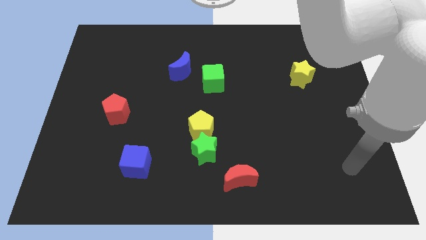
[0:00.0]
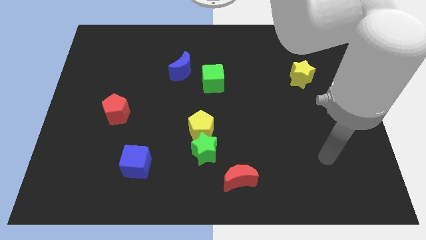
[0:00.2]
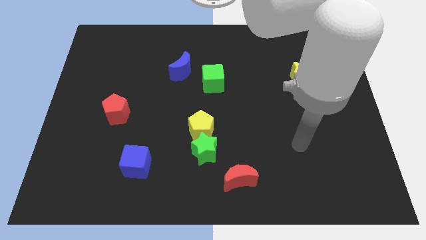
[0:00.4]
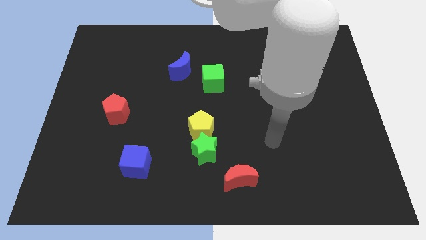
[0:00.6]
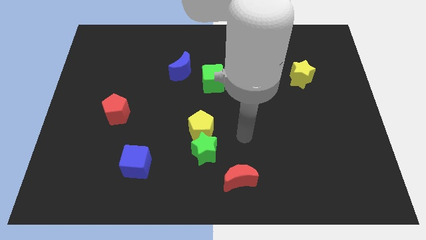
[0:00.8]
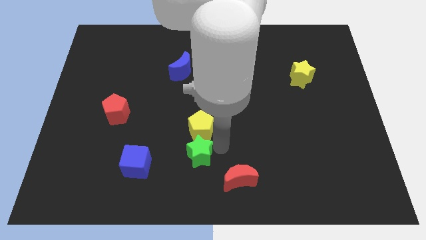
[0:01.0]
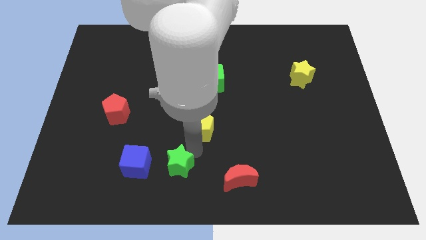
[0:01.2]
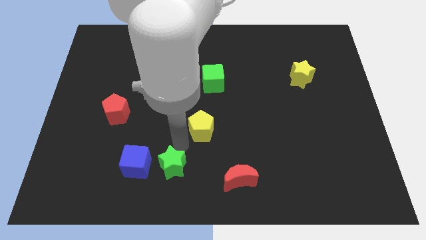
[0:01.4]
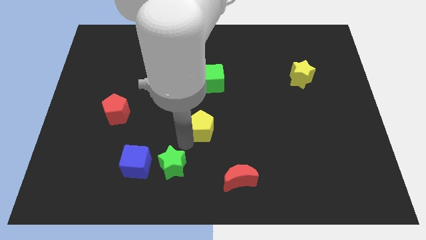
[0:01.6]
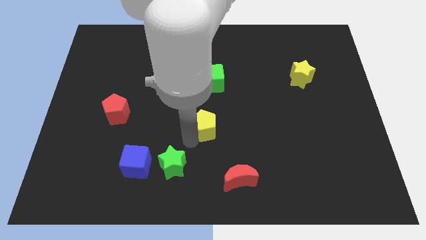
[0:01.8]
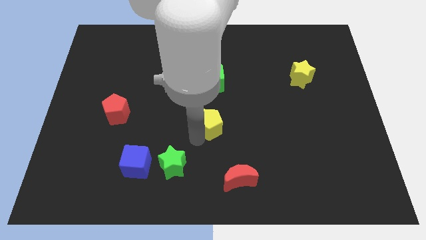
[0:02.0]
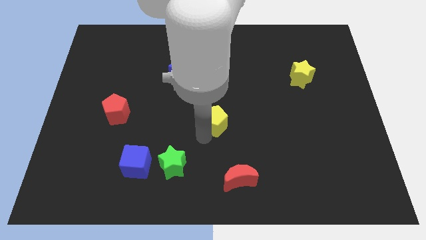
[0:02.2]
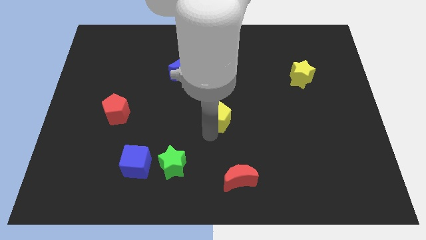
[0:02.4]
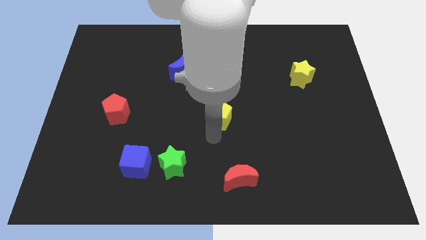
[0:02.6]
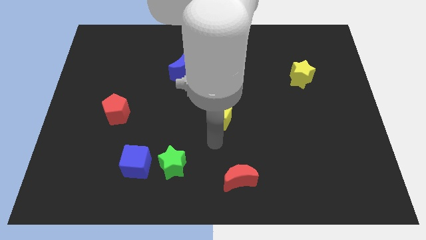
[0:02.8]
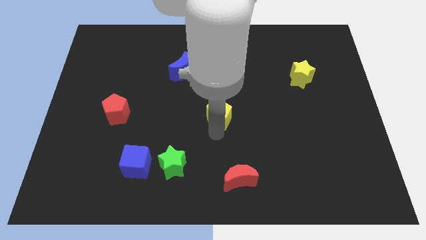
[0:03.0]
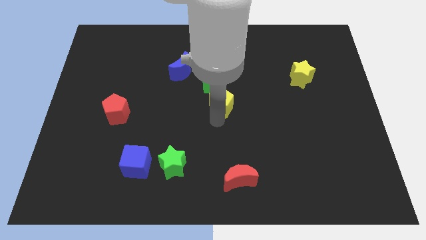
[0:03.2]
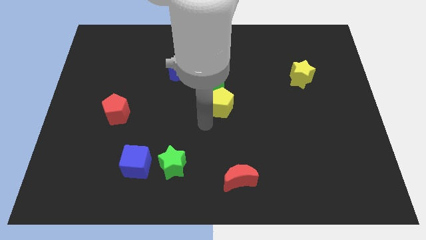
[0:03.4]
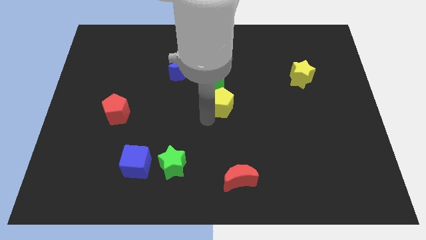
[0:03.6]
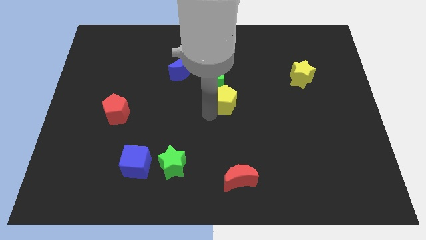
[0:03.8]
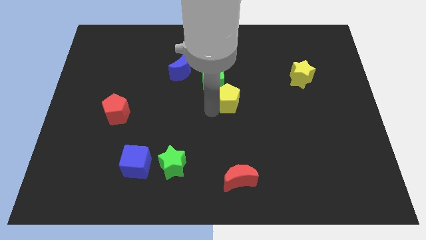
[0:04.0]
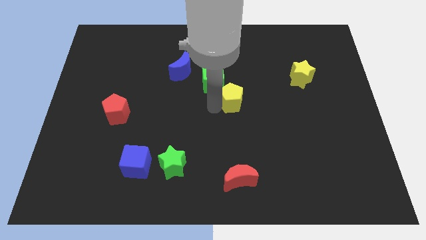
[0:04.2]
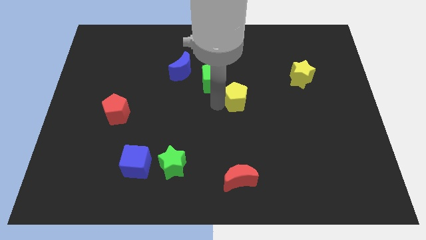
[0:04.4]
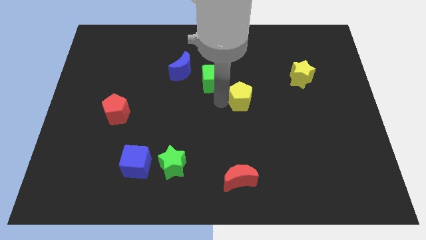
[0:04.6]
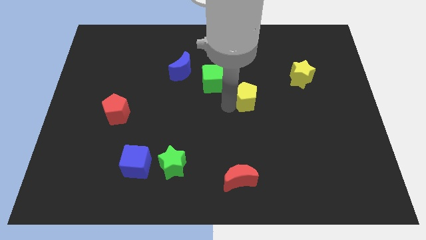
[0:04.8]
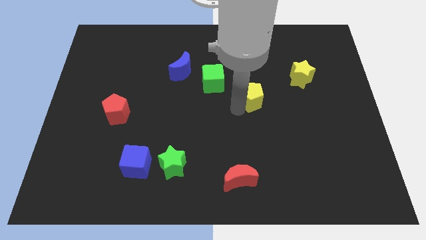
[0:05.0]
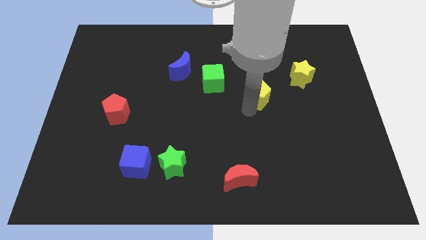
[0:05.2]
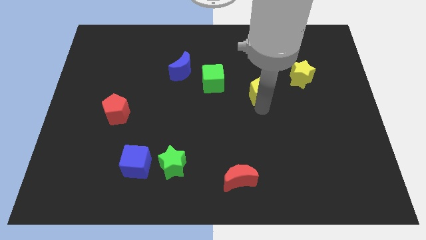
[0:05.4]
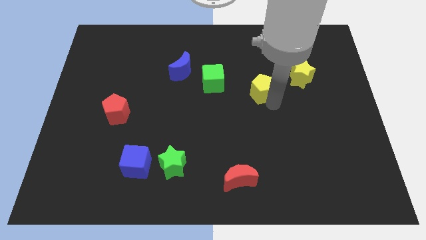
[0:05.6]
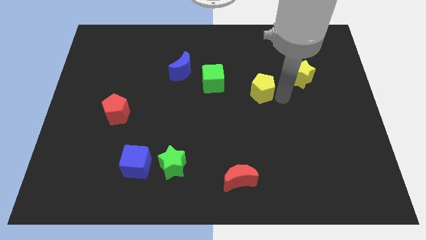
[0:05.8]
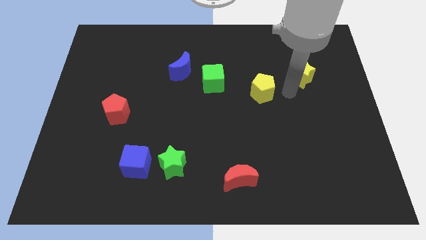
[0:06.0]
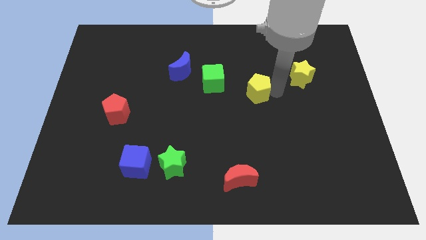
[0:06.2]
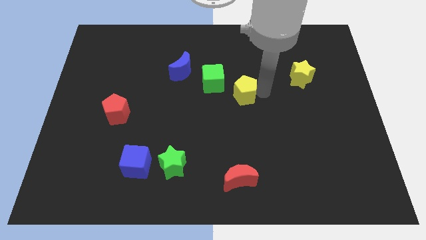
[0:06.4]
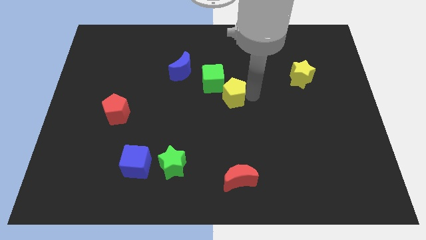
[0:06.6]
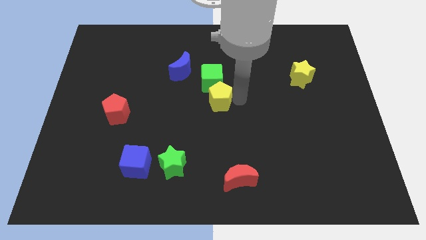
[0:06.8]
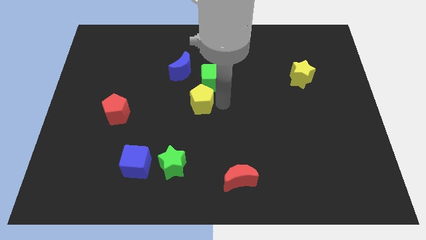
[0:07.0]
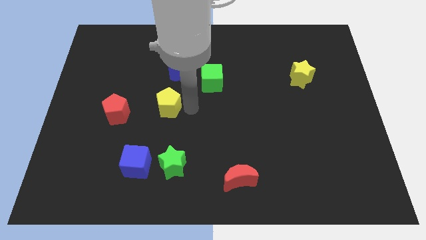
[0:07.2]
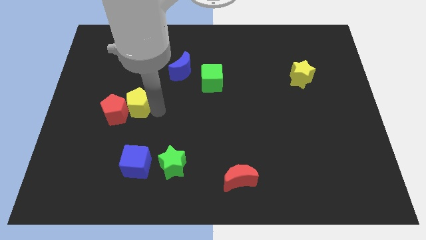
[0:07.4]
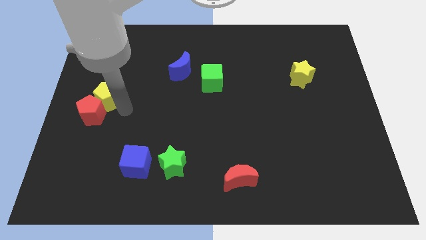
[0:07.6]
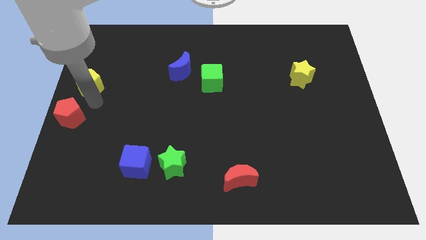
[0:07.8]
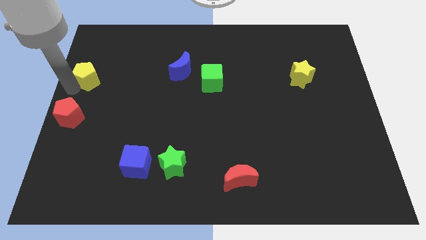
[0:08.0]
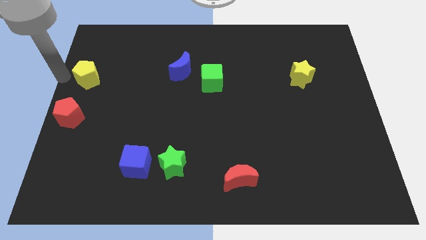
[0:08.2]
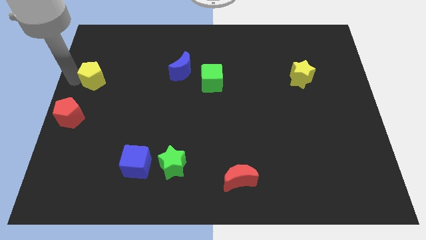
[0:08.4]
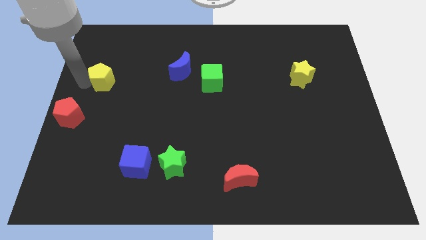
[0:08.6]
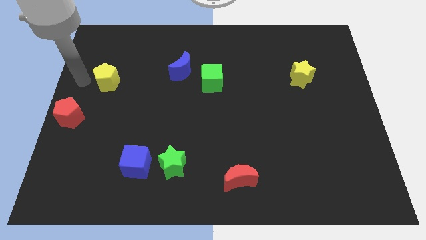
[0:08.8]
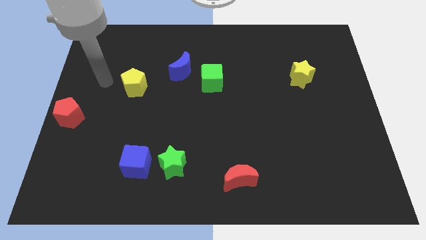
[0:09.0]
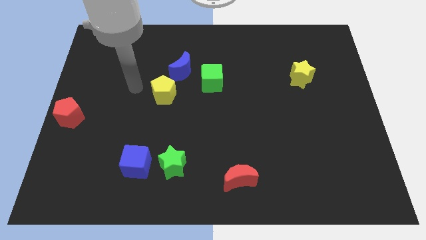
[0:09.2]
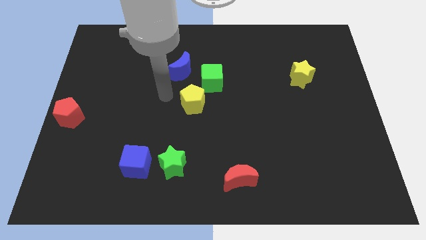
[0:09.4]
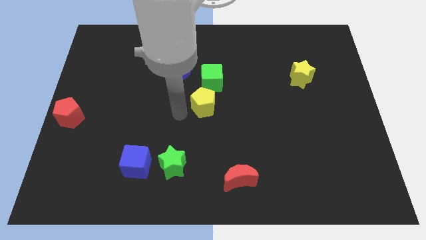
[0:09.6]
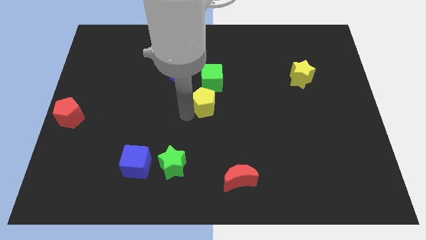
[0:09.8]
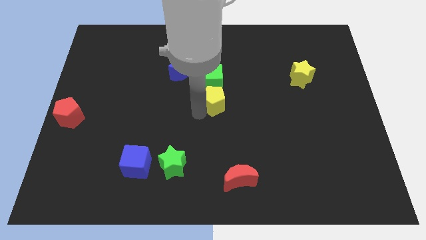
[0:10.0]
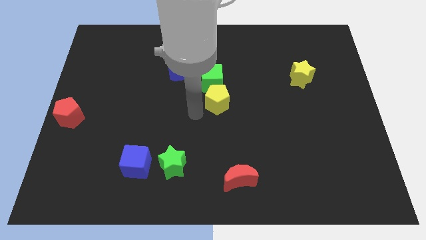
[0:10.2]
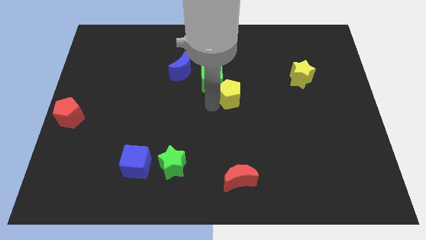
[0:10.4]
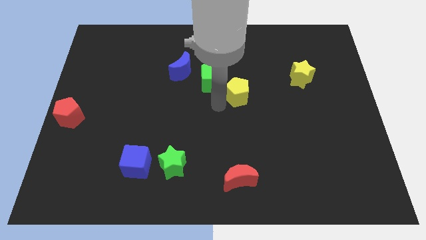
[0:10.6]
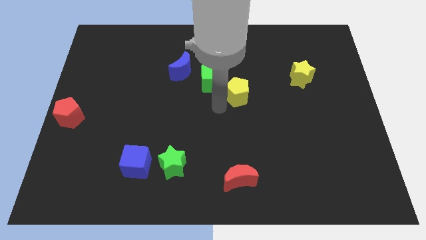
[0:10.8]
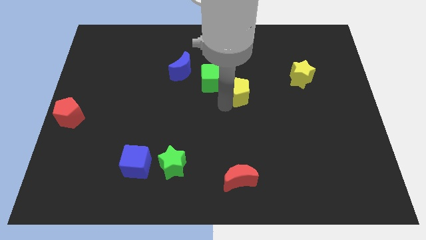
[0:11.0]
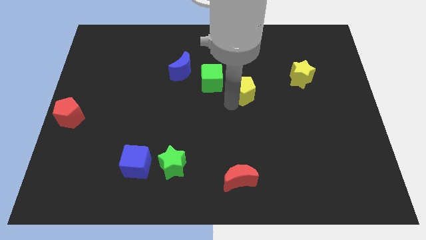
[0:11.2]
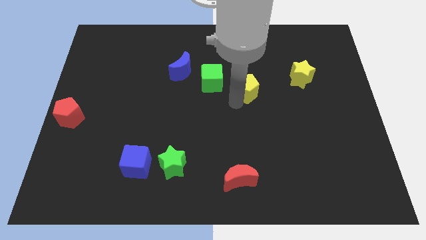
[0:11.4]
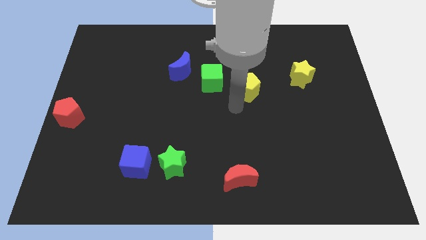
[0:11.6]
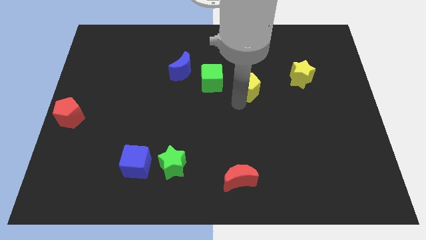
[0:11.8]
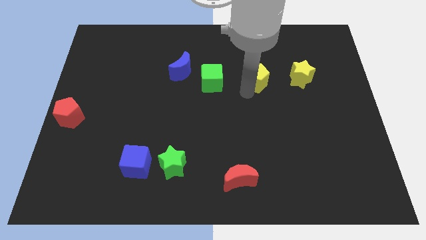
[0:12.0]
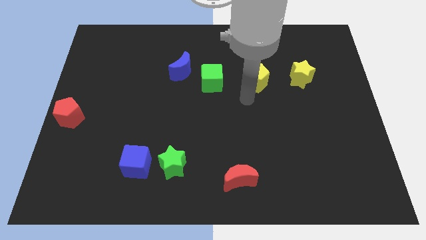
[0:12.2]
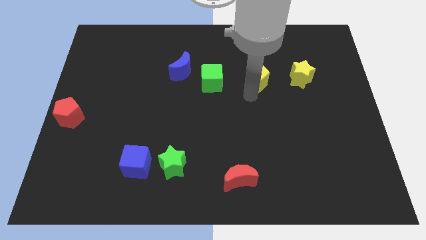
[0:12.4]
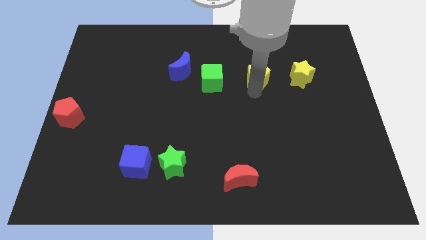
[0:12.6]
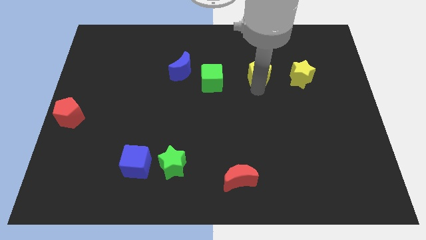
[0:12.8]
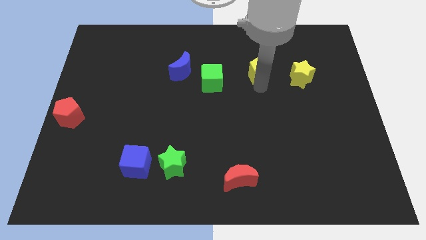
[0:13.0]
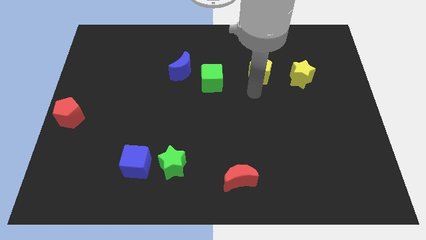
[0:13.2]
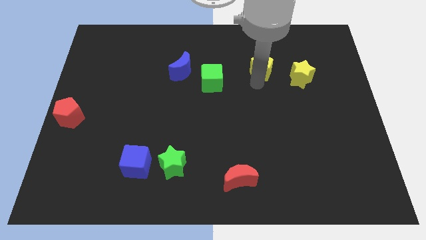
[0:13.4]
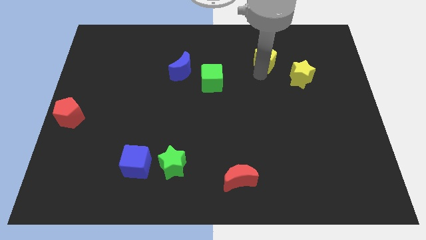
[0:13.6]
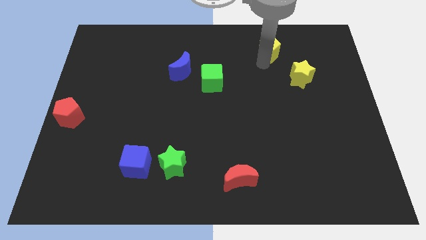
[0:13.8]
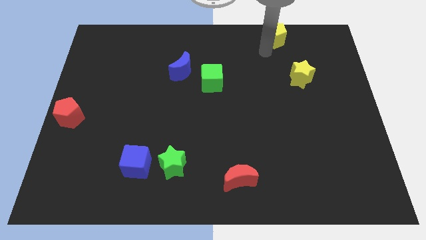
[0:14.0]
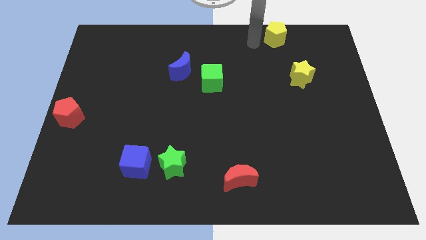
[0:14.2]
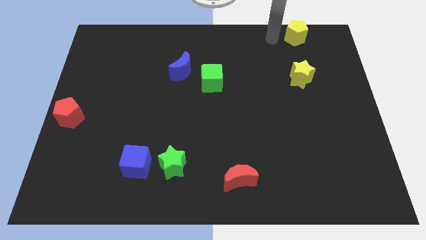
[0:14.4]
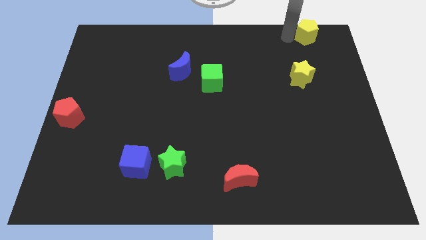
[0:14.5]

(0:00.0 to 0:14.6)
slide the yellow pentagon to the top right corner
